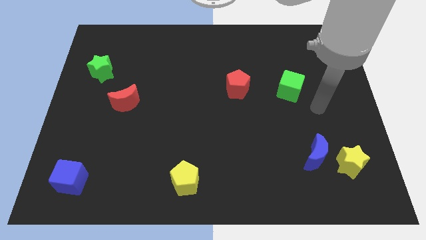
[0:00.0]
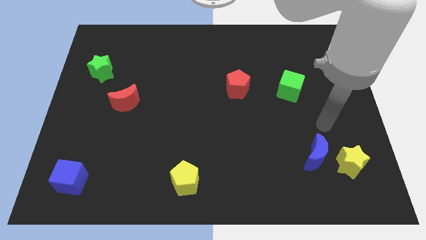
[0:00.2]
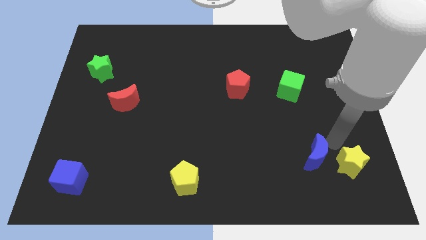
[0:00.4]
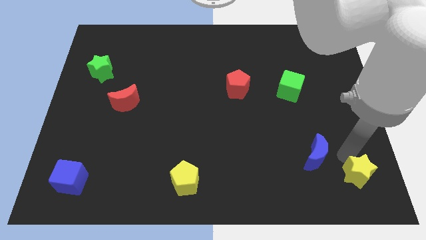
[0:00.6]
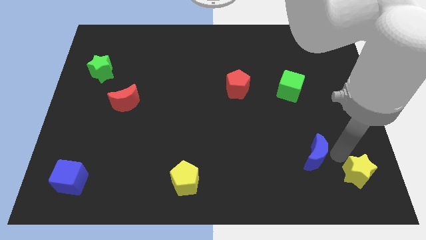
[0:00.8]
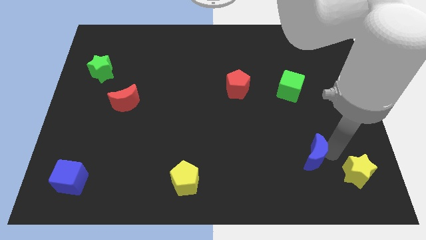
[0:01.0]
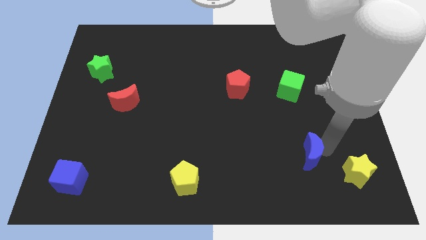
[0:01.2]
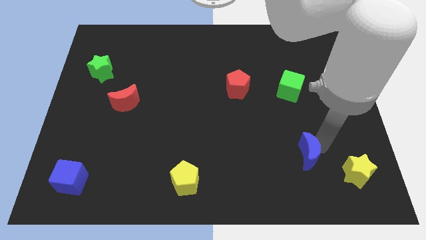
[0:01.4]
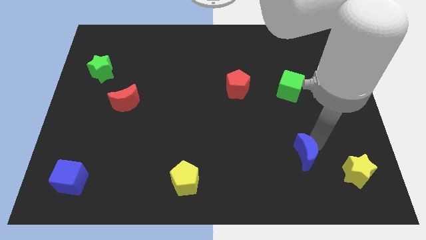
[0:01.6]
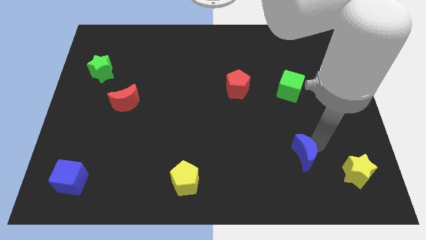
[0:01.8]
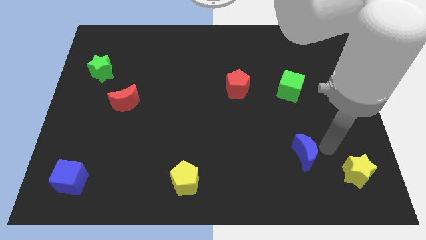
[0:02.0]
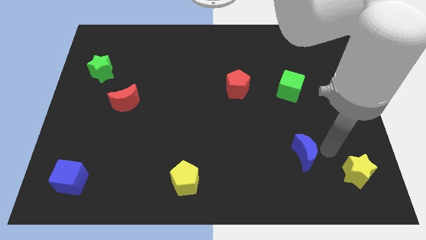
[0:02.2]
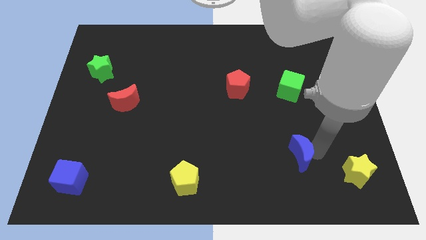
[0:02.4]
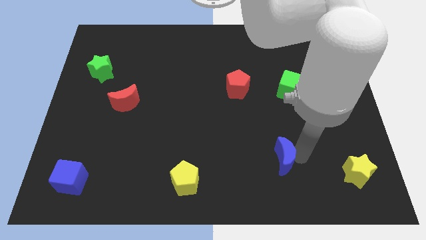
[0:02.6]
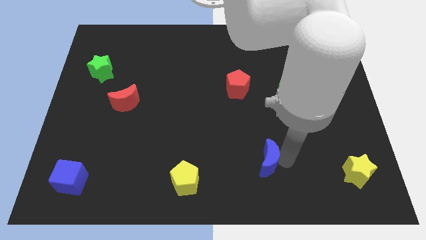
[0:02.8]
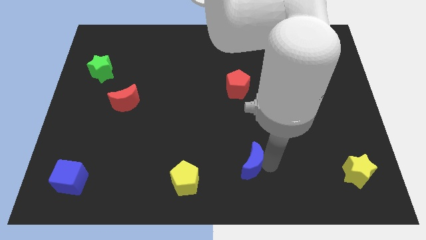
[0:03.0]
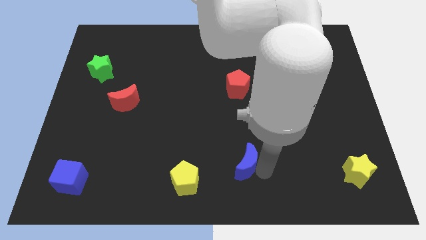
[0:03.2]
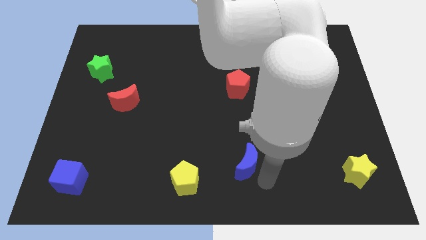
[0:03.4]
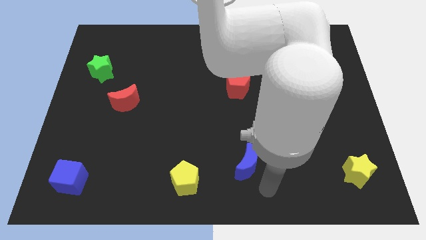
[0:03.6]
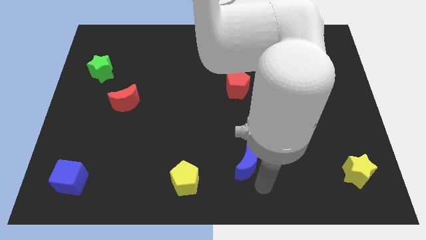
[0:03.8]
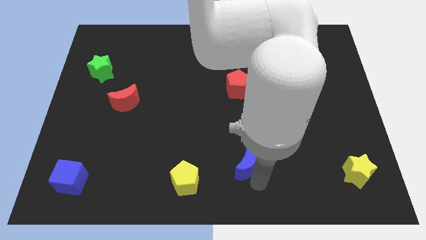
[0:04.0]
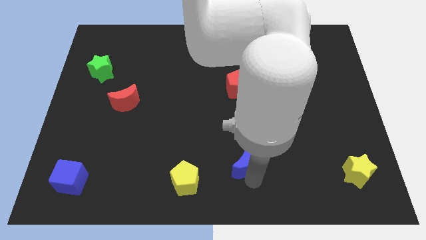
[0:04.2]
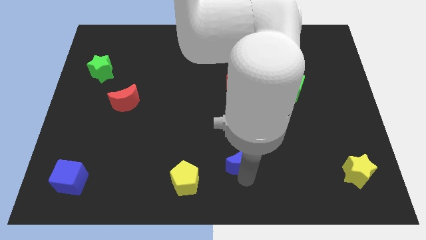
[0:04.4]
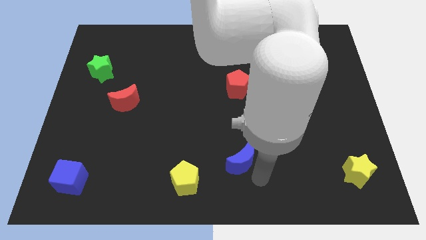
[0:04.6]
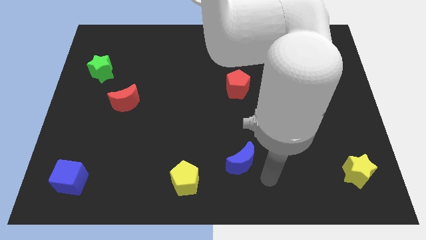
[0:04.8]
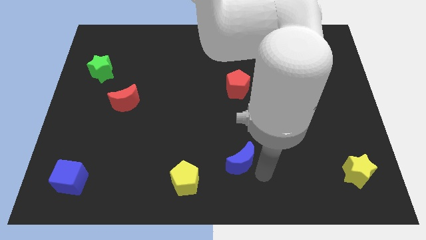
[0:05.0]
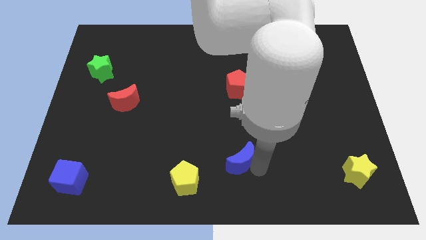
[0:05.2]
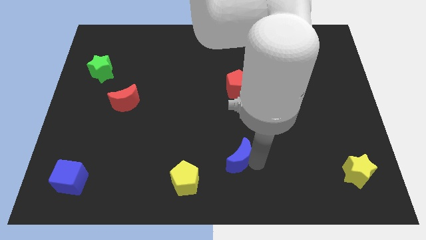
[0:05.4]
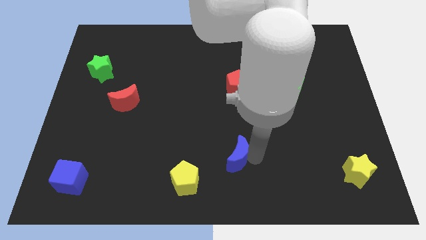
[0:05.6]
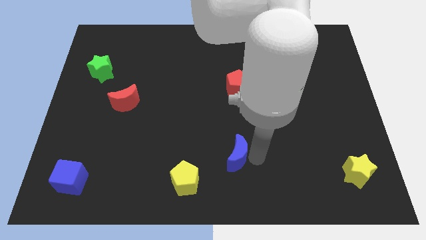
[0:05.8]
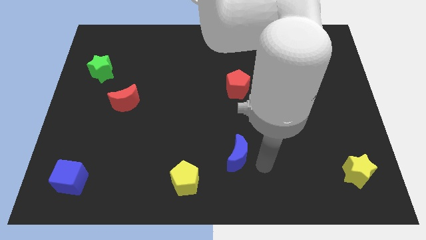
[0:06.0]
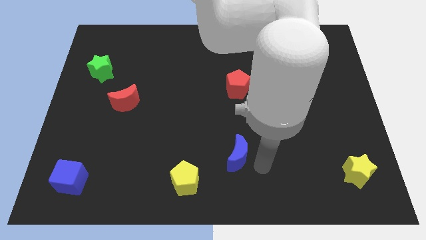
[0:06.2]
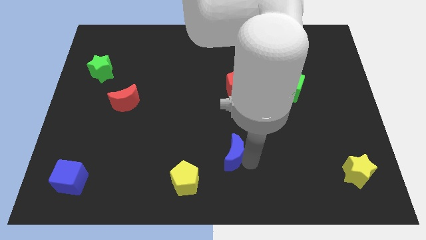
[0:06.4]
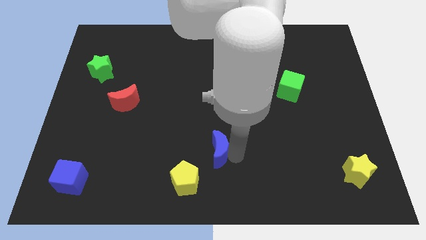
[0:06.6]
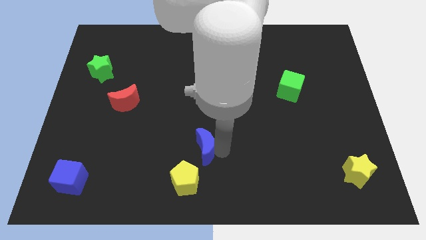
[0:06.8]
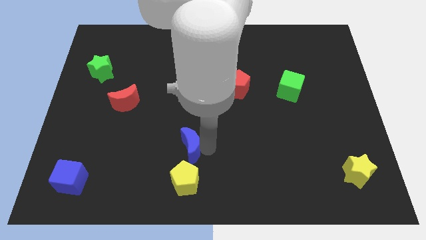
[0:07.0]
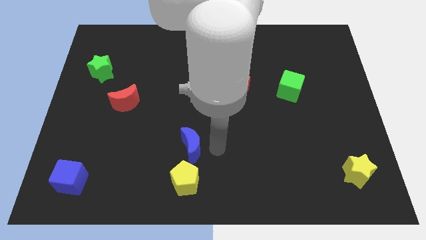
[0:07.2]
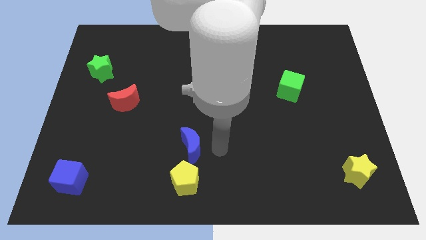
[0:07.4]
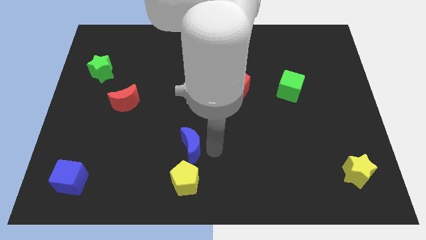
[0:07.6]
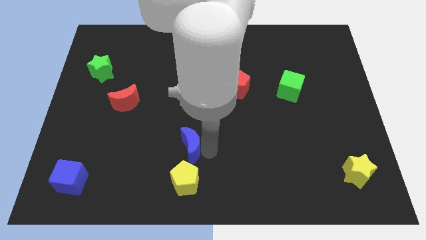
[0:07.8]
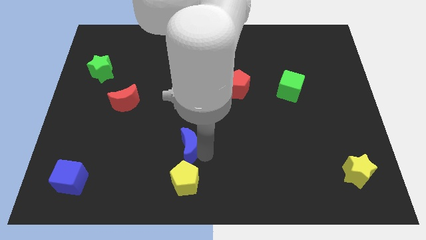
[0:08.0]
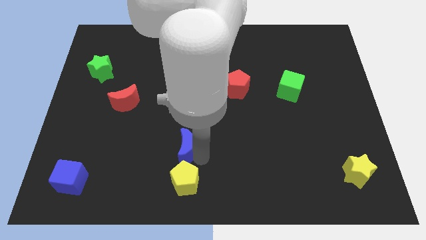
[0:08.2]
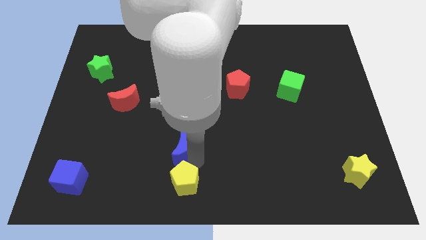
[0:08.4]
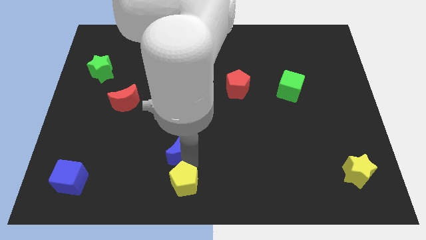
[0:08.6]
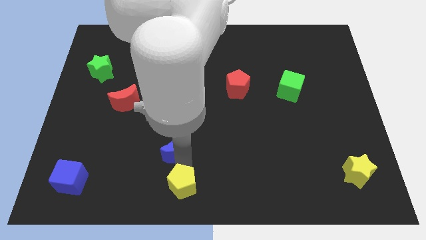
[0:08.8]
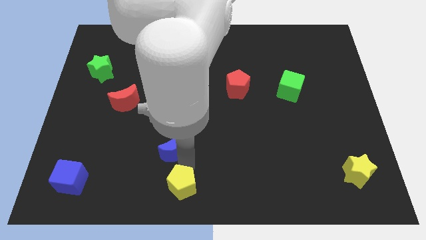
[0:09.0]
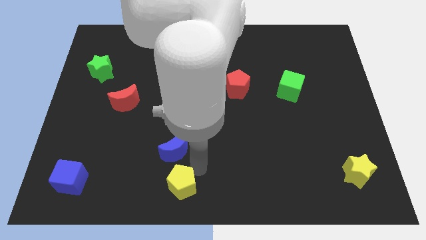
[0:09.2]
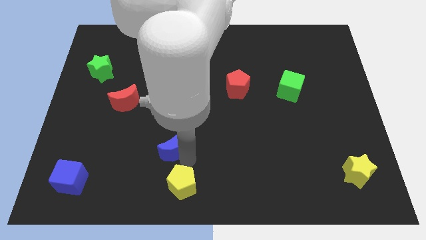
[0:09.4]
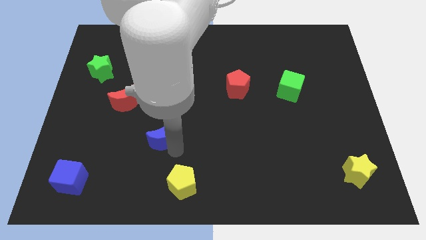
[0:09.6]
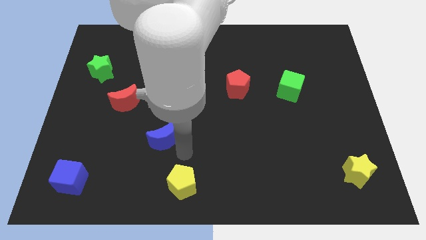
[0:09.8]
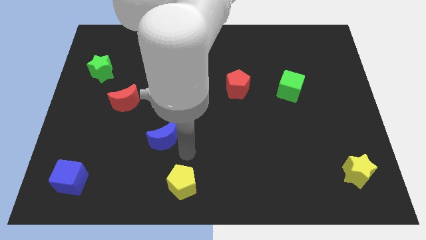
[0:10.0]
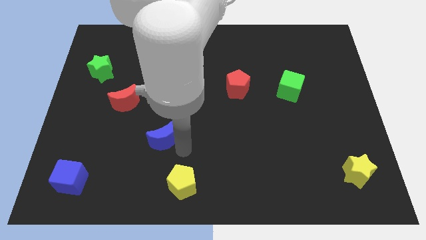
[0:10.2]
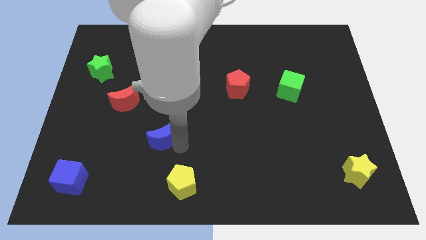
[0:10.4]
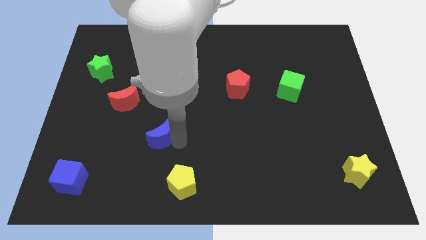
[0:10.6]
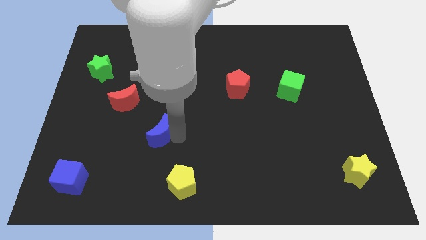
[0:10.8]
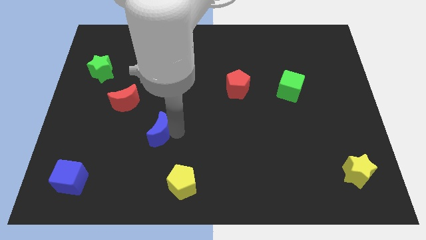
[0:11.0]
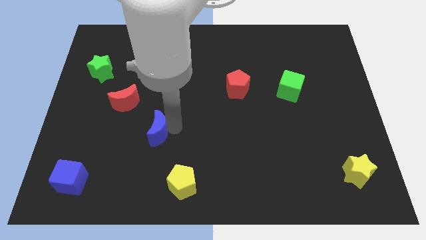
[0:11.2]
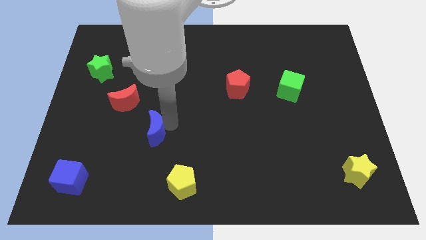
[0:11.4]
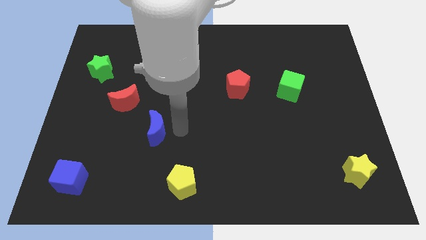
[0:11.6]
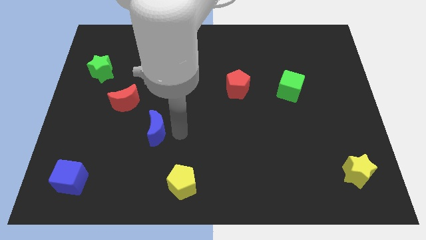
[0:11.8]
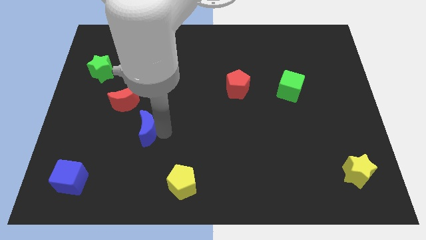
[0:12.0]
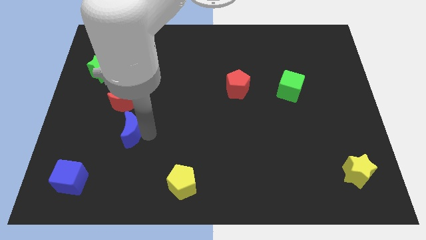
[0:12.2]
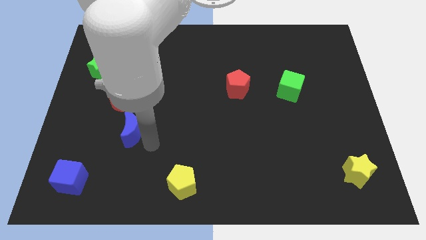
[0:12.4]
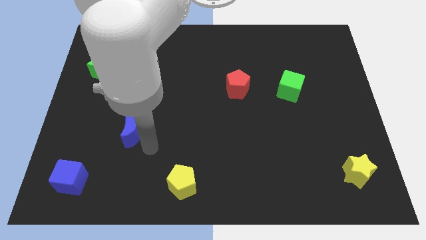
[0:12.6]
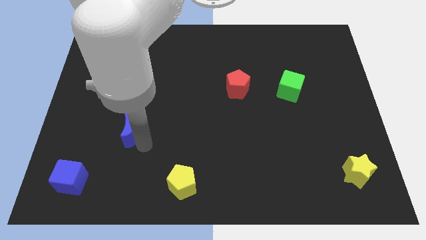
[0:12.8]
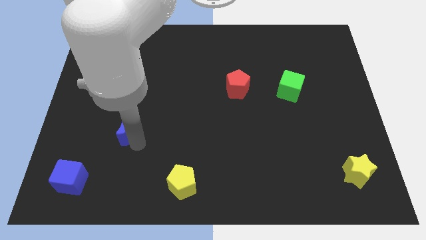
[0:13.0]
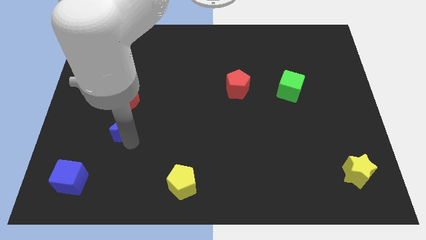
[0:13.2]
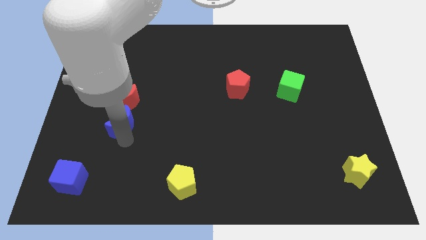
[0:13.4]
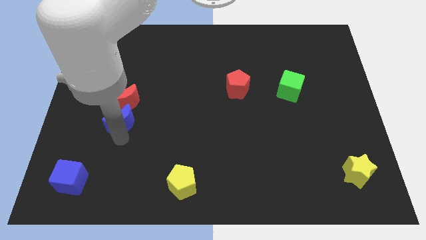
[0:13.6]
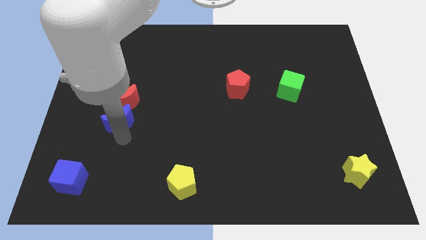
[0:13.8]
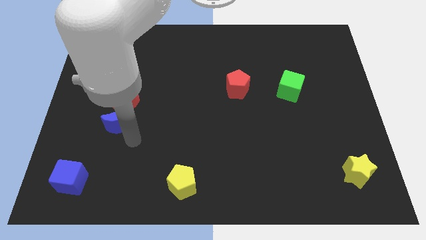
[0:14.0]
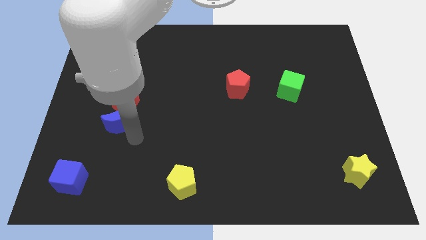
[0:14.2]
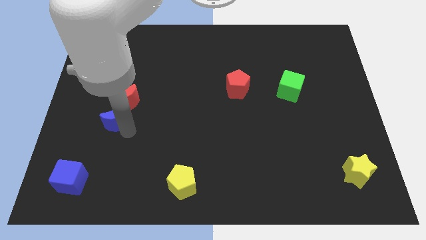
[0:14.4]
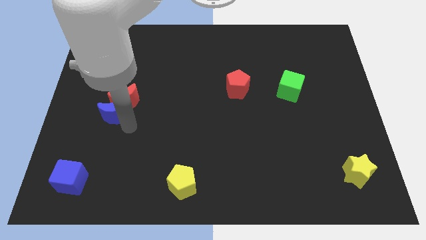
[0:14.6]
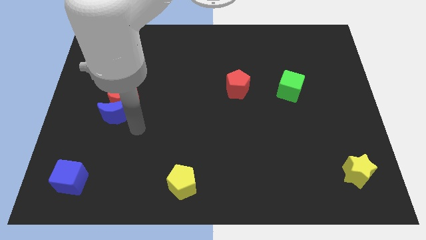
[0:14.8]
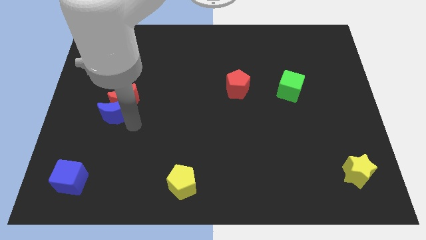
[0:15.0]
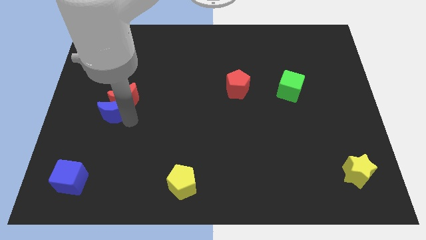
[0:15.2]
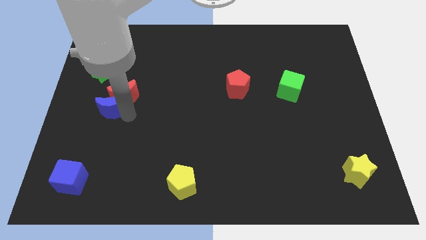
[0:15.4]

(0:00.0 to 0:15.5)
slide the blue moon below the green star
